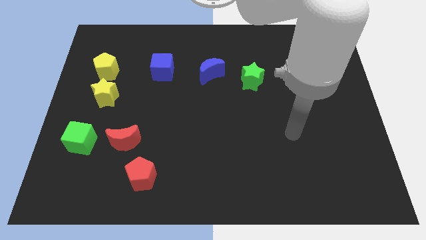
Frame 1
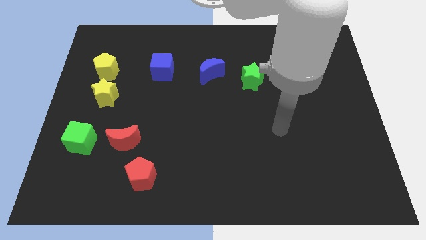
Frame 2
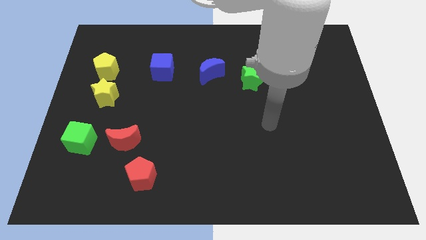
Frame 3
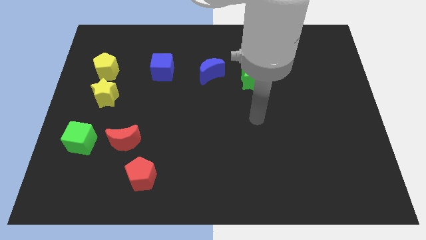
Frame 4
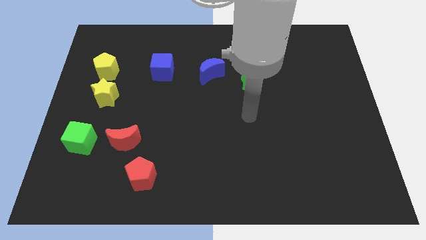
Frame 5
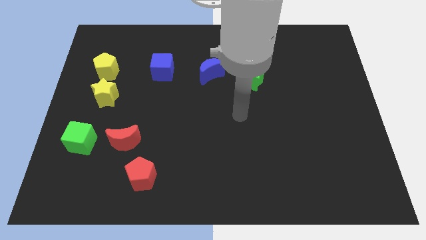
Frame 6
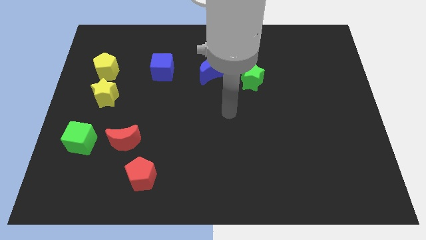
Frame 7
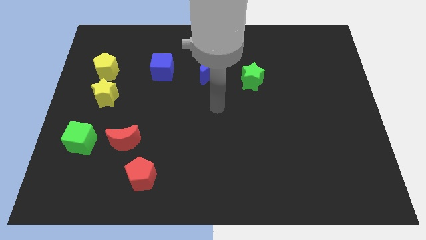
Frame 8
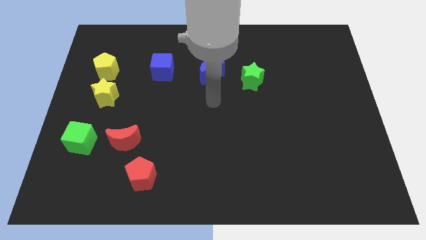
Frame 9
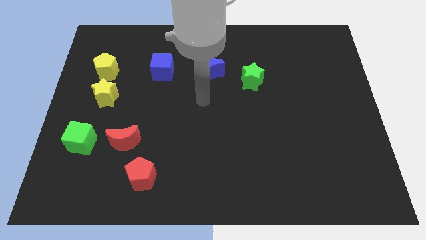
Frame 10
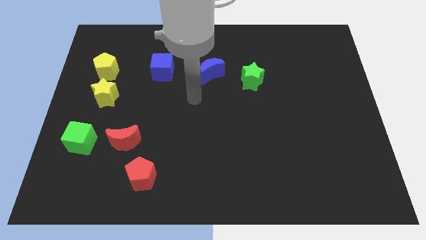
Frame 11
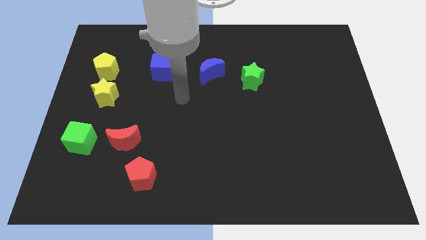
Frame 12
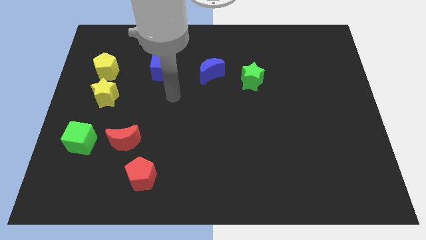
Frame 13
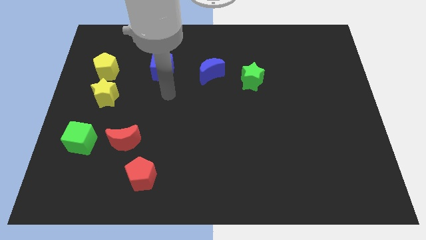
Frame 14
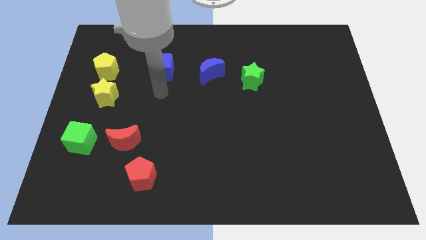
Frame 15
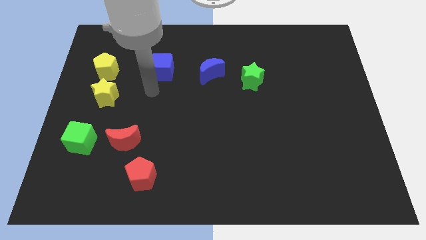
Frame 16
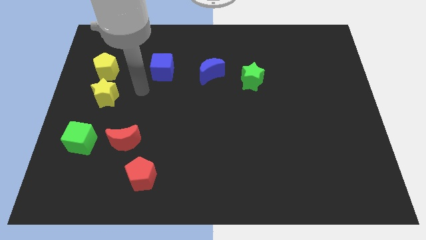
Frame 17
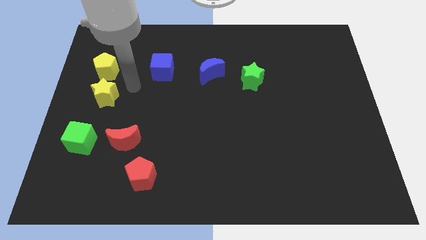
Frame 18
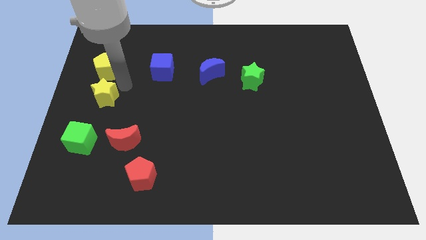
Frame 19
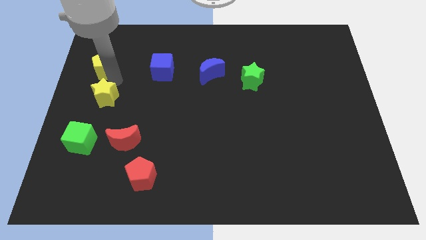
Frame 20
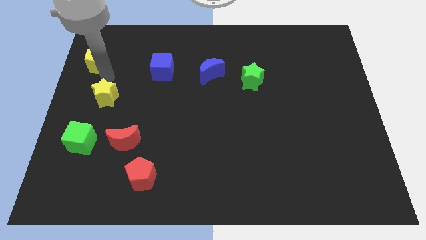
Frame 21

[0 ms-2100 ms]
separate the yellow star from the yellow pentagon

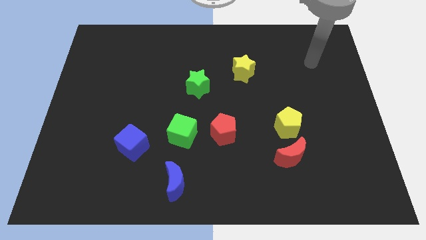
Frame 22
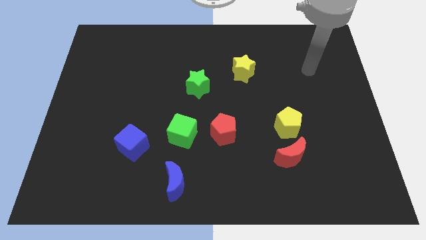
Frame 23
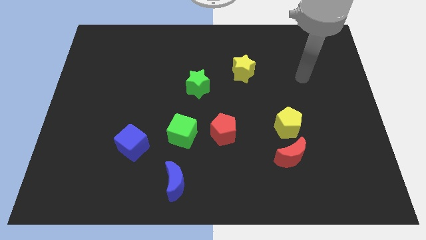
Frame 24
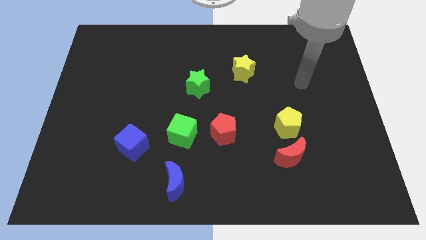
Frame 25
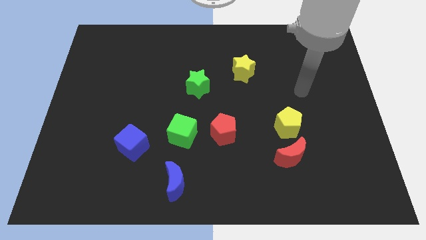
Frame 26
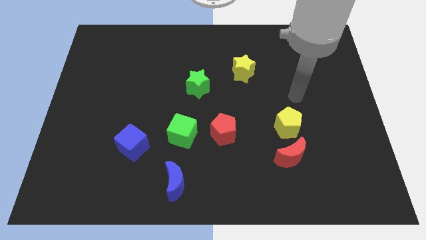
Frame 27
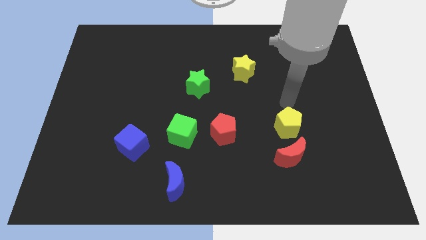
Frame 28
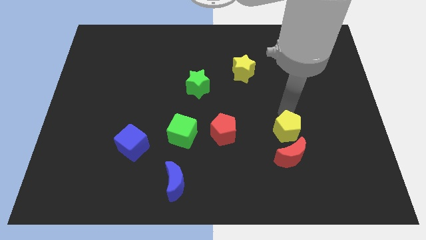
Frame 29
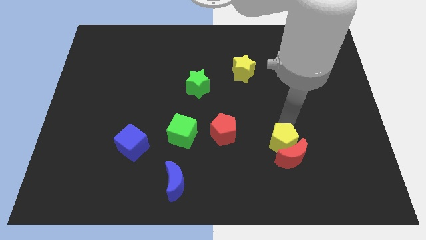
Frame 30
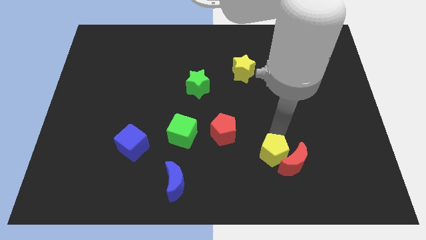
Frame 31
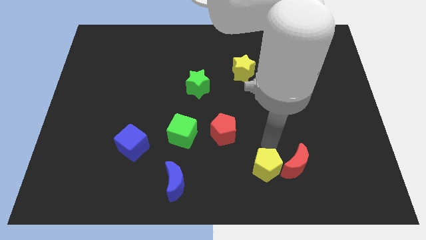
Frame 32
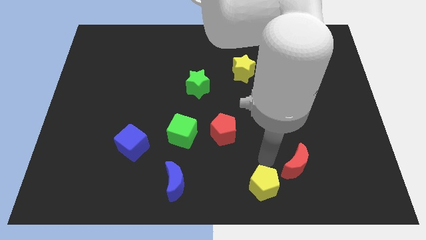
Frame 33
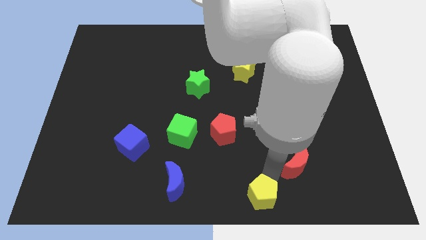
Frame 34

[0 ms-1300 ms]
separate the red moon from the yellow pentagon

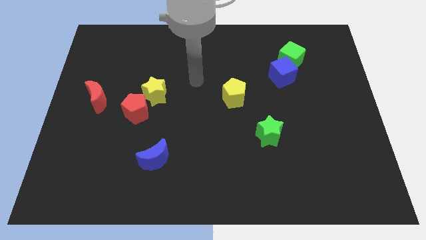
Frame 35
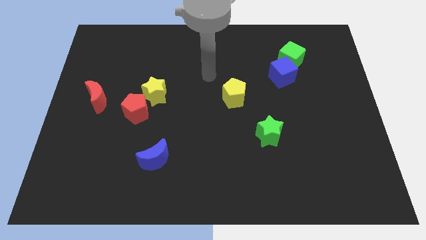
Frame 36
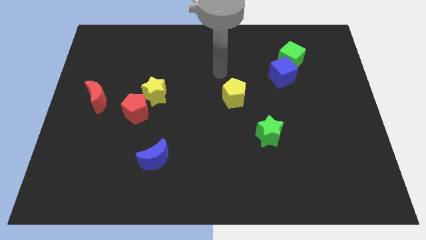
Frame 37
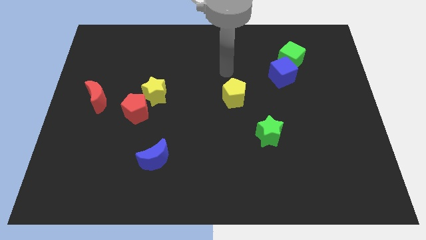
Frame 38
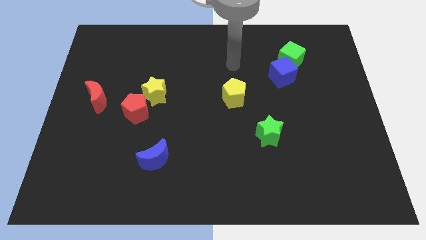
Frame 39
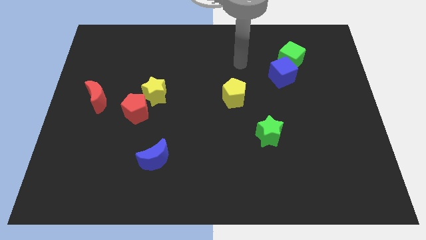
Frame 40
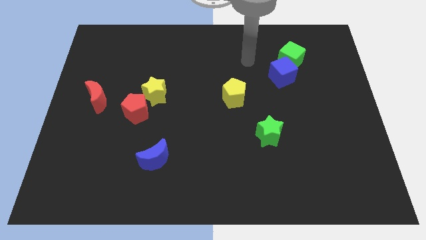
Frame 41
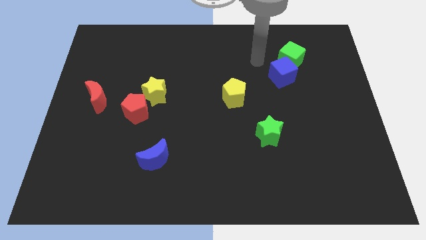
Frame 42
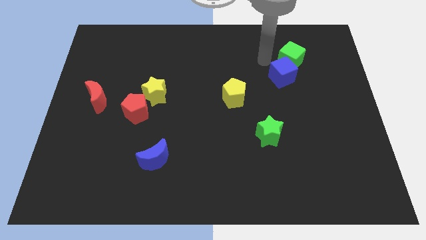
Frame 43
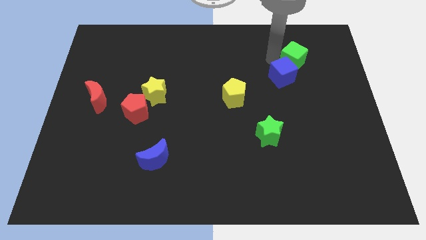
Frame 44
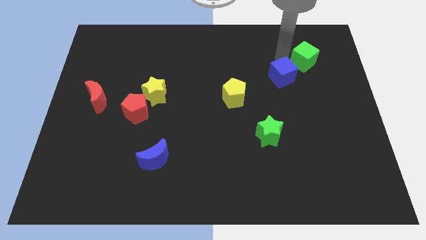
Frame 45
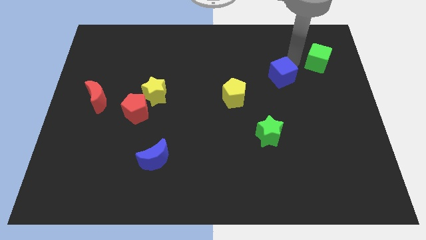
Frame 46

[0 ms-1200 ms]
move the blue cube away from the green cube

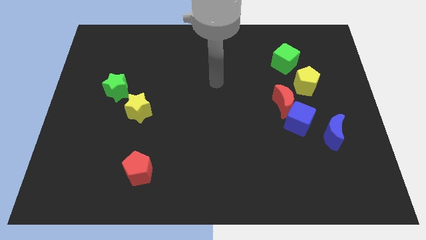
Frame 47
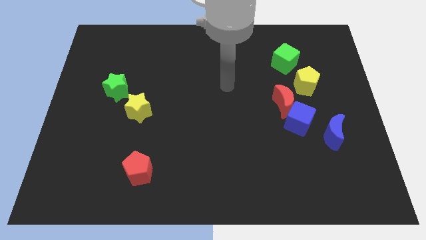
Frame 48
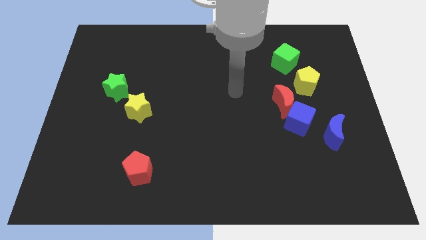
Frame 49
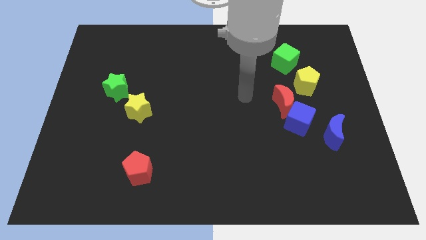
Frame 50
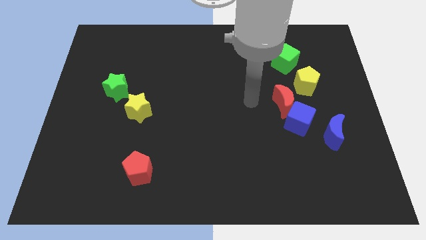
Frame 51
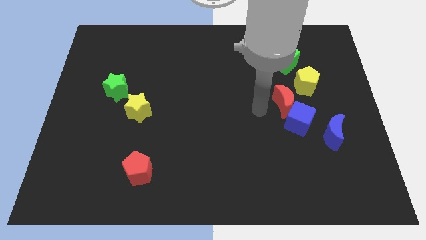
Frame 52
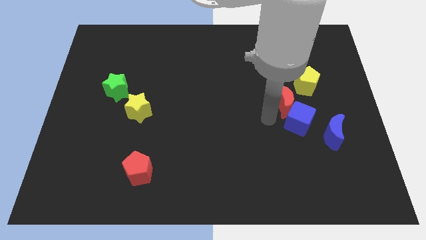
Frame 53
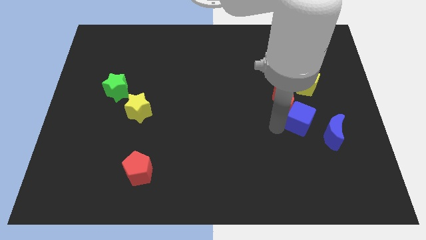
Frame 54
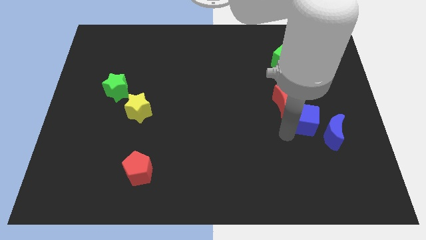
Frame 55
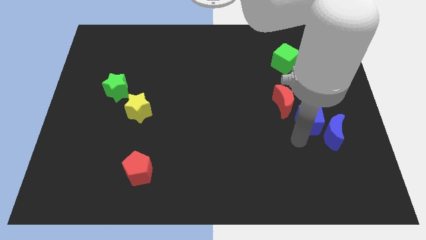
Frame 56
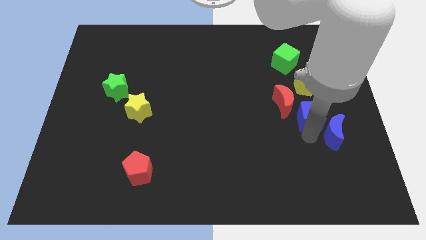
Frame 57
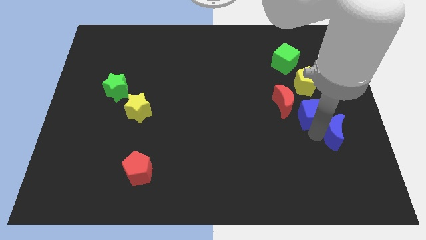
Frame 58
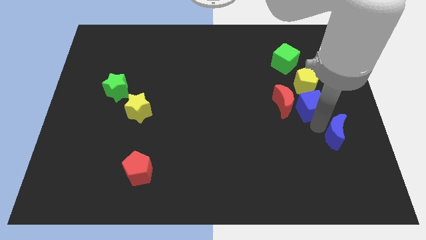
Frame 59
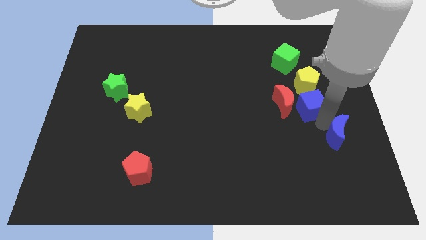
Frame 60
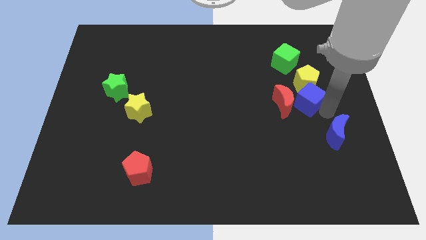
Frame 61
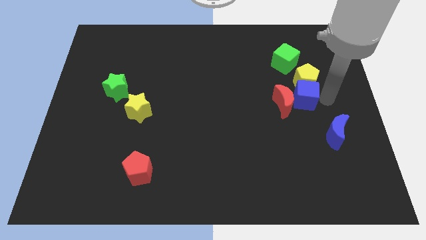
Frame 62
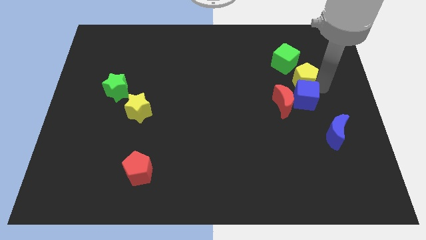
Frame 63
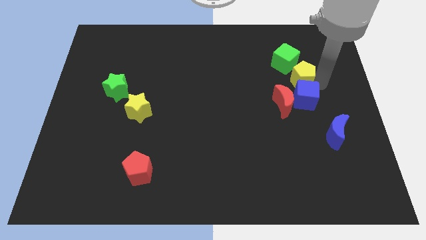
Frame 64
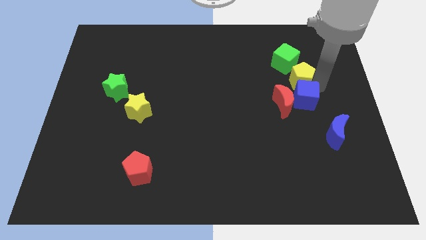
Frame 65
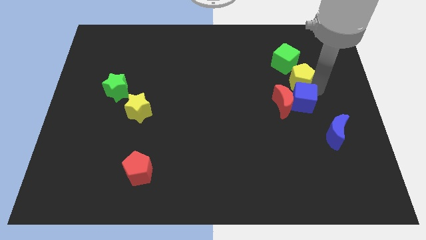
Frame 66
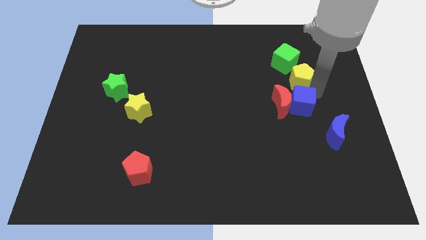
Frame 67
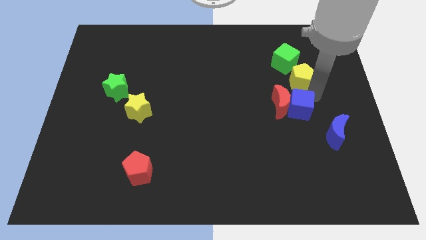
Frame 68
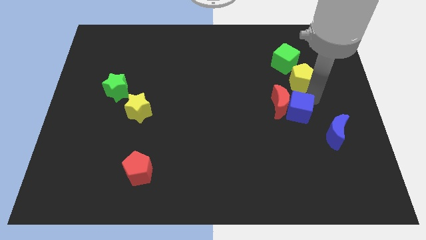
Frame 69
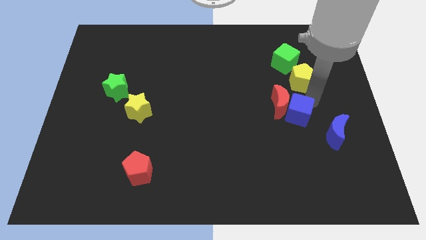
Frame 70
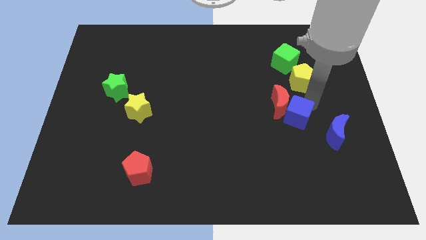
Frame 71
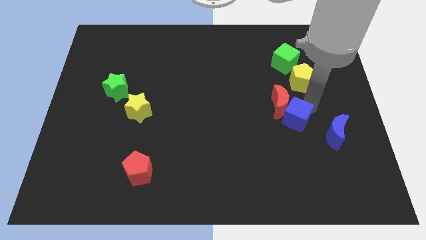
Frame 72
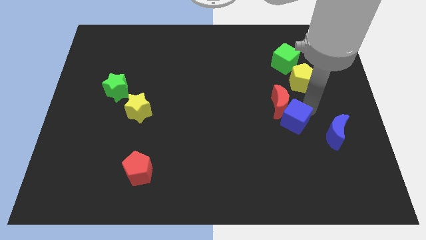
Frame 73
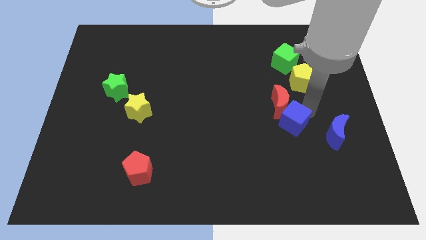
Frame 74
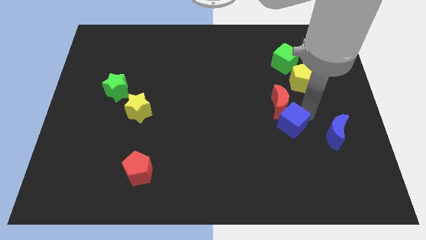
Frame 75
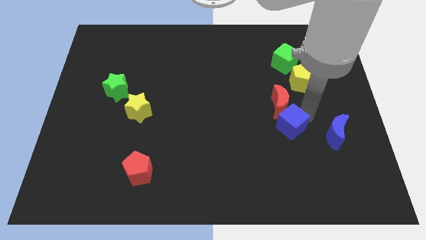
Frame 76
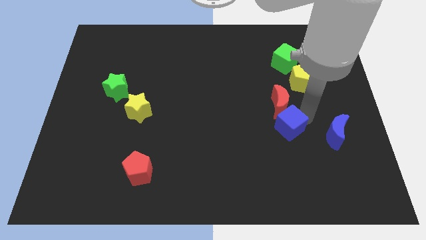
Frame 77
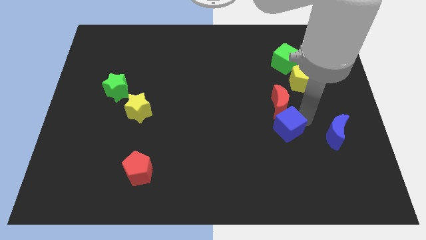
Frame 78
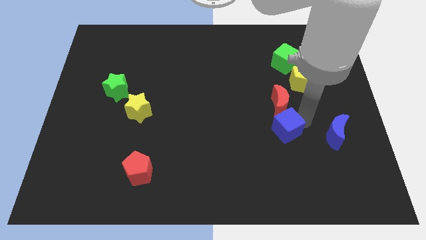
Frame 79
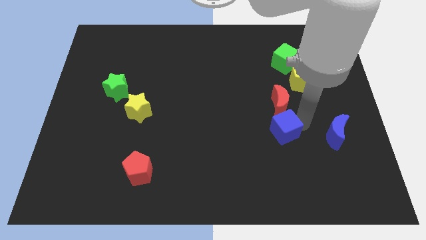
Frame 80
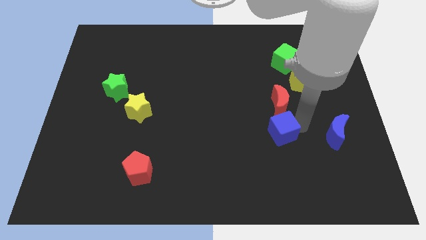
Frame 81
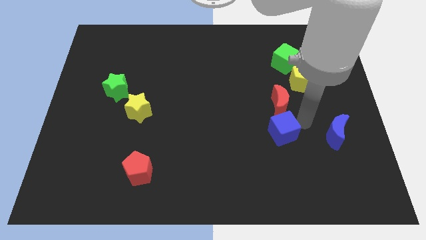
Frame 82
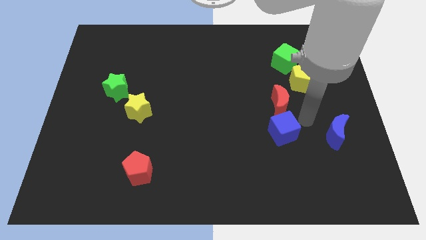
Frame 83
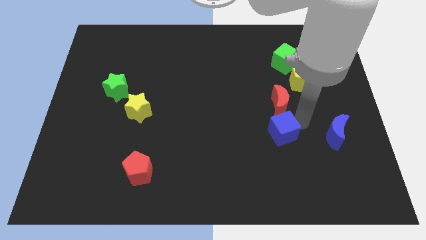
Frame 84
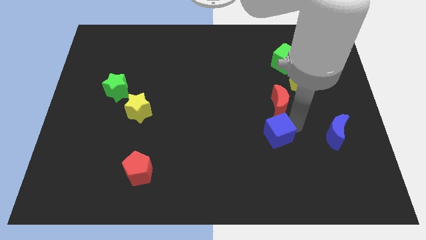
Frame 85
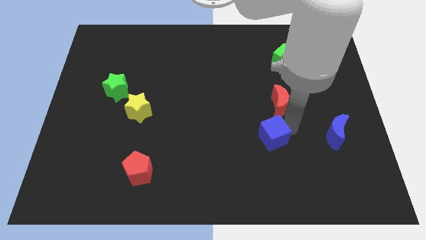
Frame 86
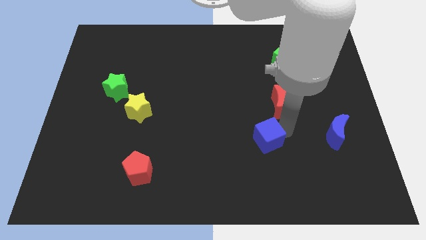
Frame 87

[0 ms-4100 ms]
separate the blue cube from the red moon and blue moon

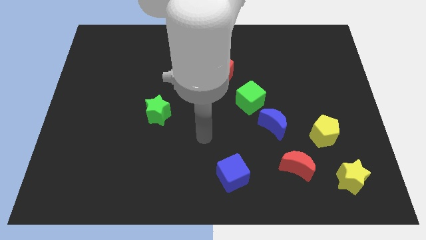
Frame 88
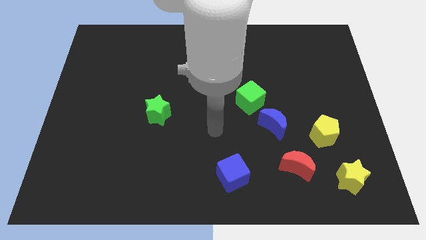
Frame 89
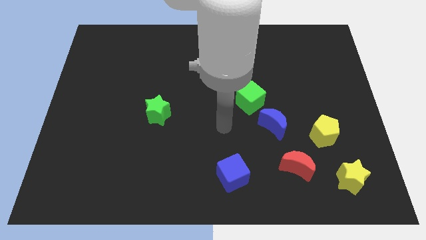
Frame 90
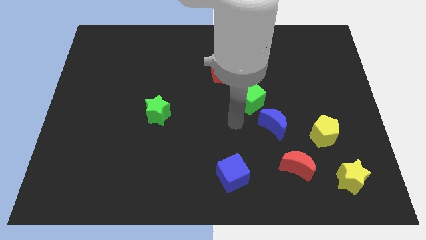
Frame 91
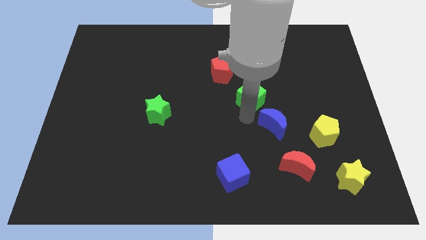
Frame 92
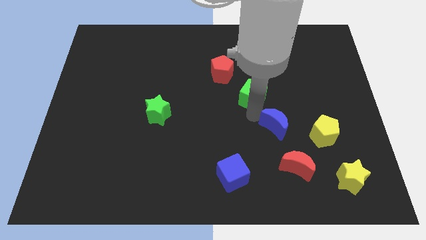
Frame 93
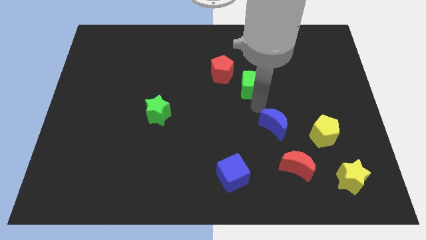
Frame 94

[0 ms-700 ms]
move the blue moon away from the green cube
